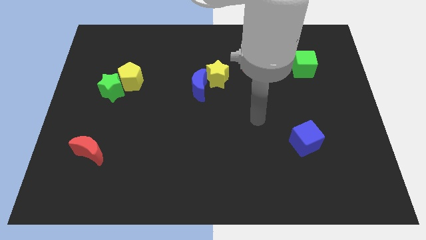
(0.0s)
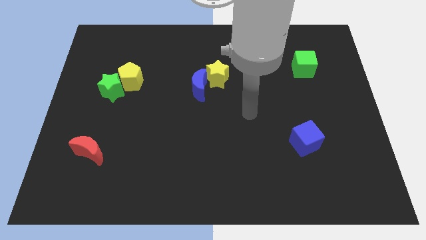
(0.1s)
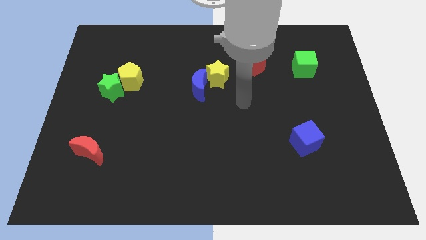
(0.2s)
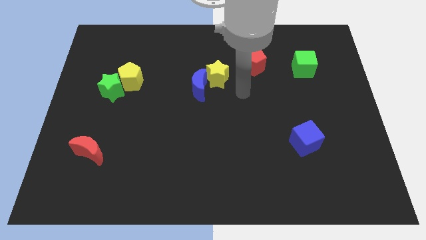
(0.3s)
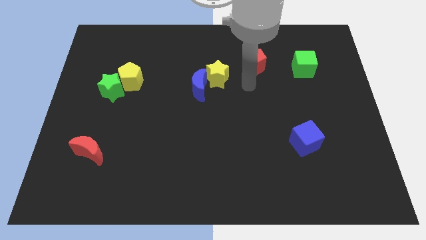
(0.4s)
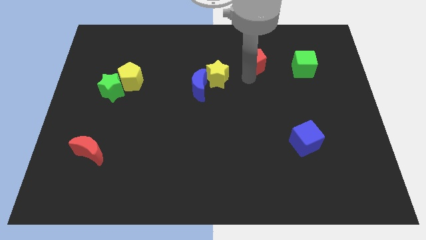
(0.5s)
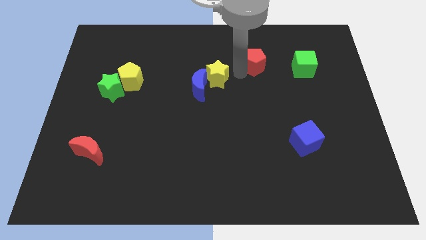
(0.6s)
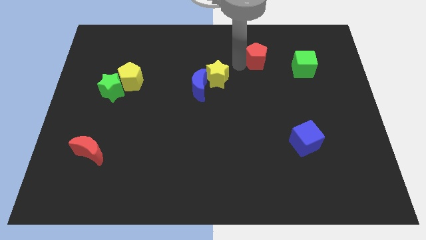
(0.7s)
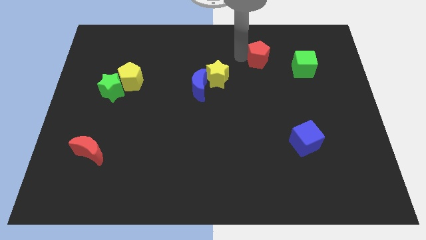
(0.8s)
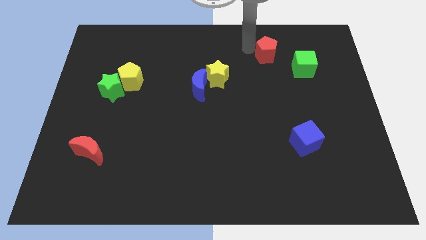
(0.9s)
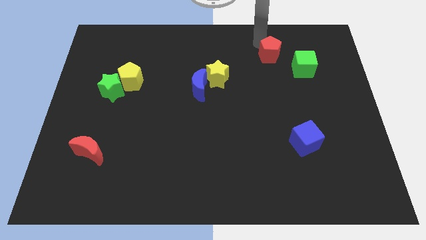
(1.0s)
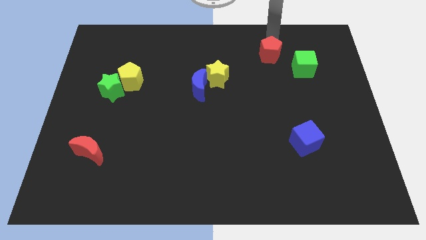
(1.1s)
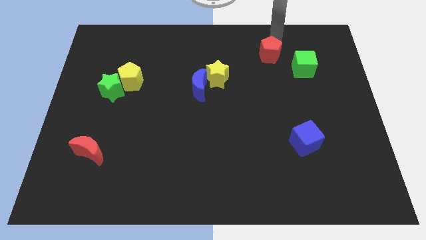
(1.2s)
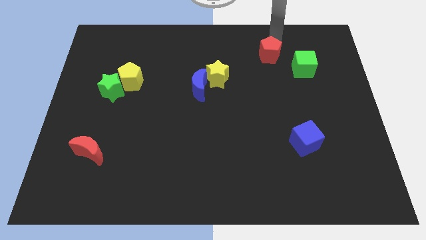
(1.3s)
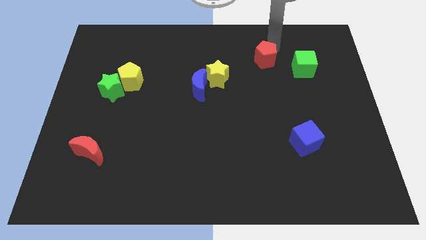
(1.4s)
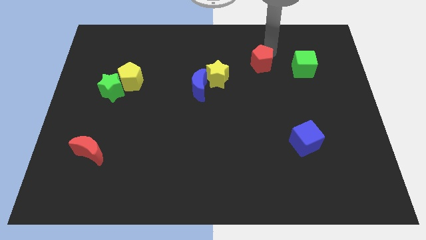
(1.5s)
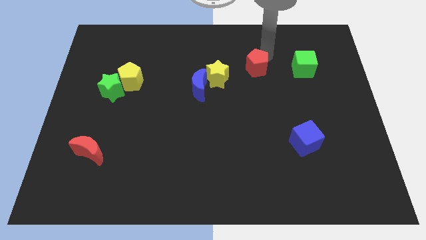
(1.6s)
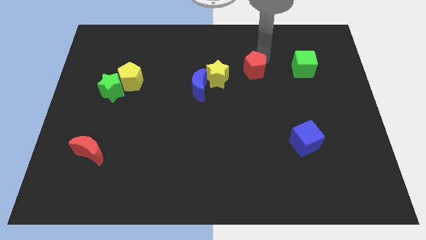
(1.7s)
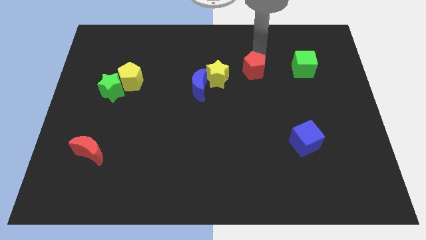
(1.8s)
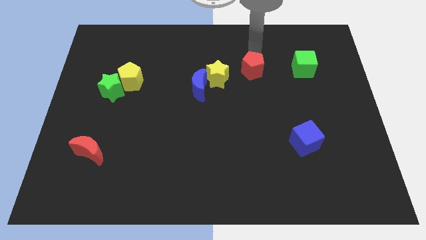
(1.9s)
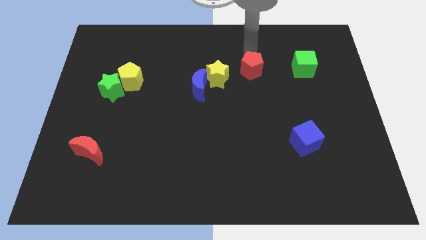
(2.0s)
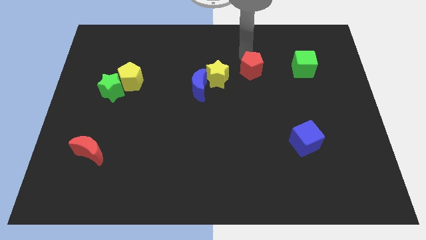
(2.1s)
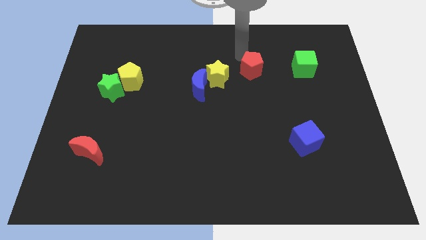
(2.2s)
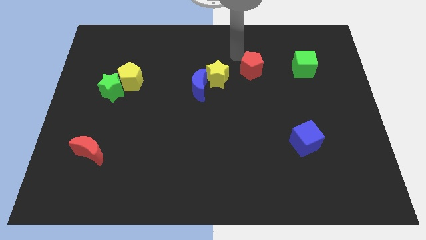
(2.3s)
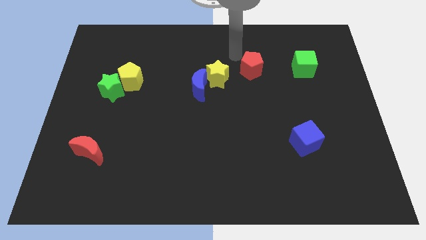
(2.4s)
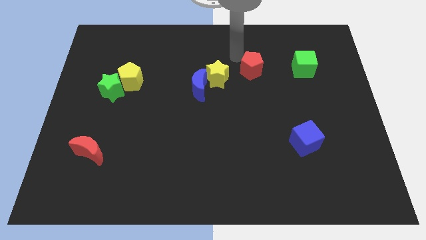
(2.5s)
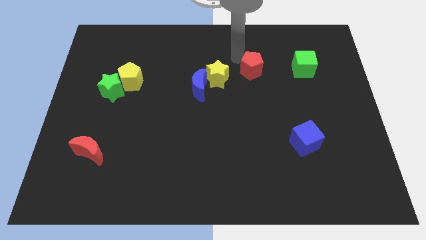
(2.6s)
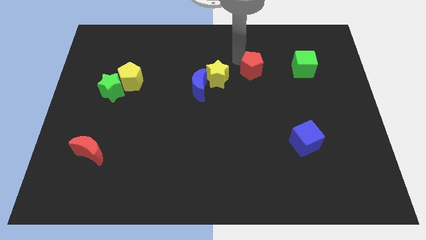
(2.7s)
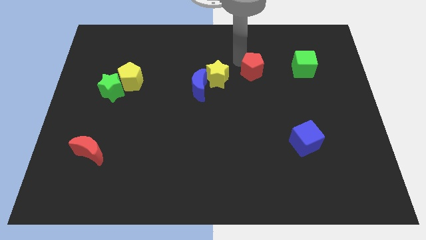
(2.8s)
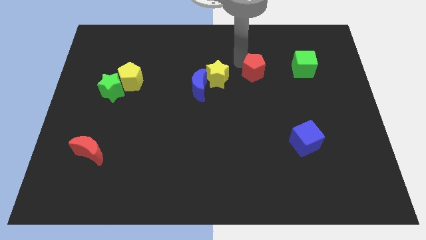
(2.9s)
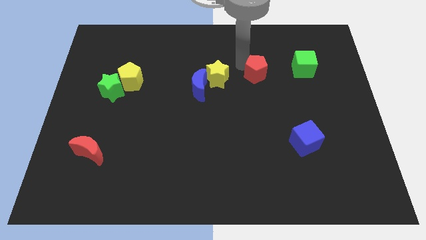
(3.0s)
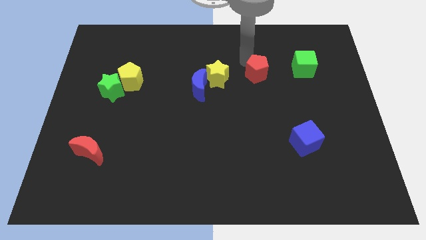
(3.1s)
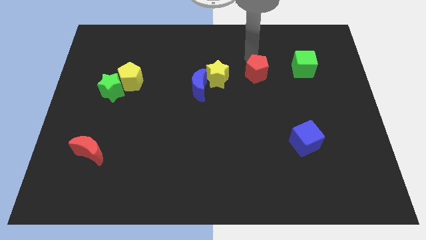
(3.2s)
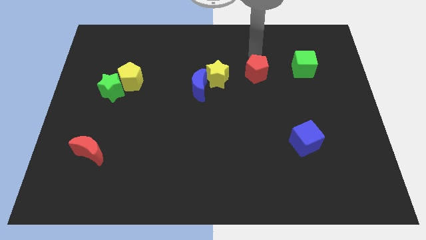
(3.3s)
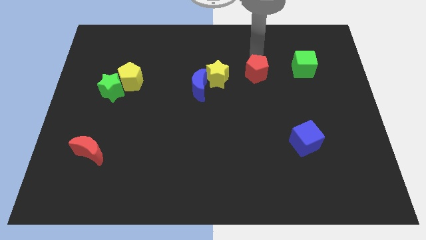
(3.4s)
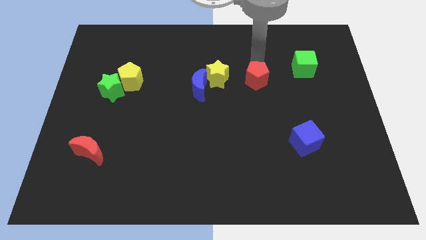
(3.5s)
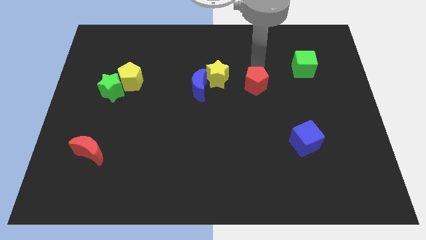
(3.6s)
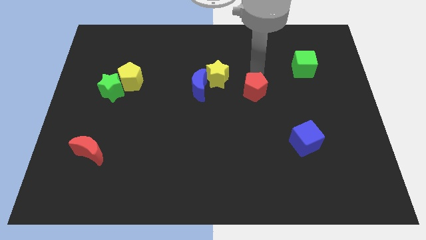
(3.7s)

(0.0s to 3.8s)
move the red pentagon down a little bit

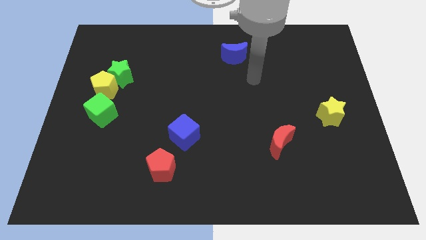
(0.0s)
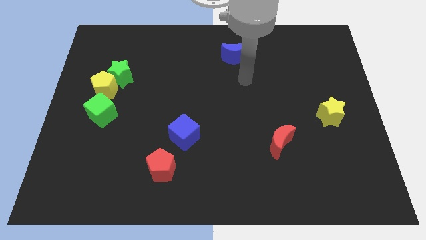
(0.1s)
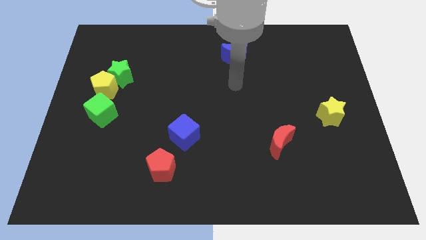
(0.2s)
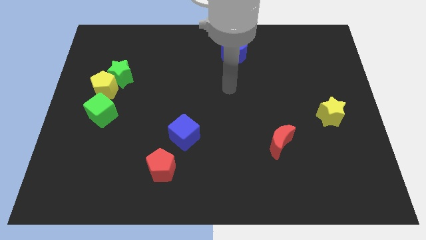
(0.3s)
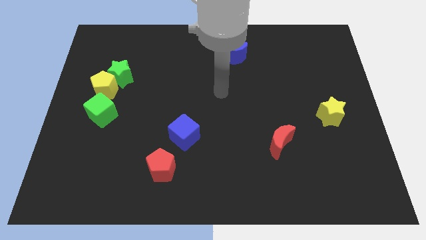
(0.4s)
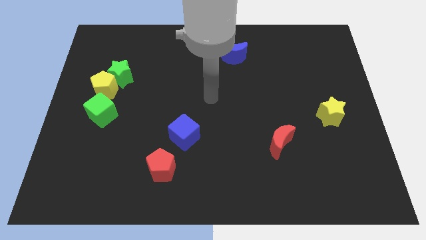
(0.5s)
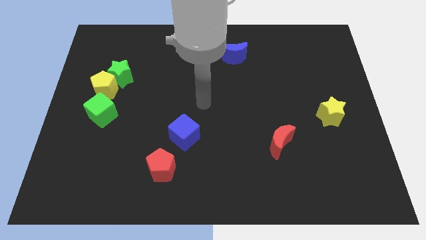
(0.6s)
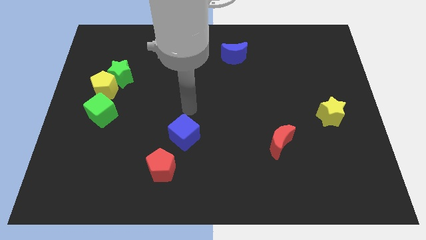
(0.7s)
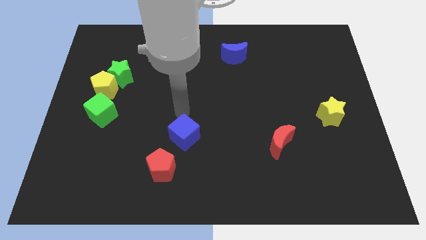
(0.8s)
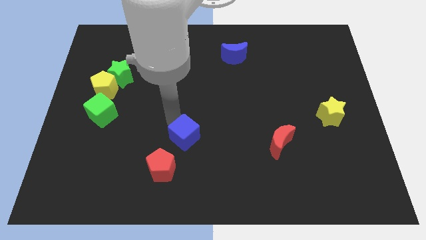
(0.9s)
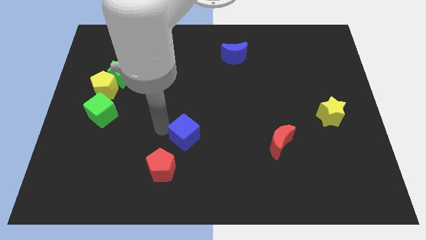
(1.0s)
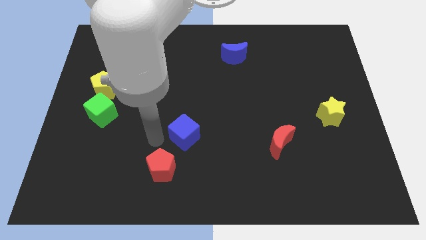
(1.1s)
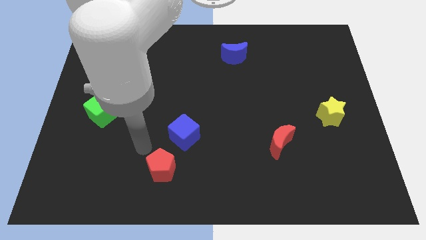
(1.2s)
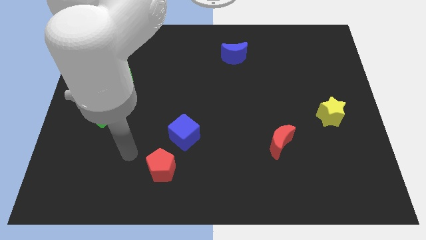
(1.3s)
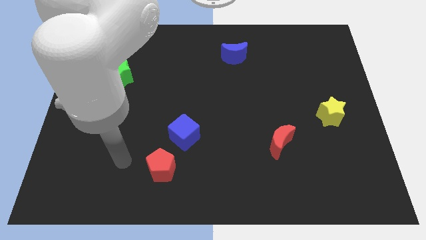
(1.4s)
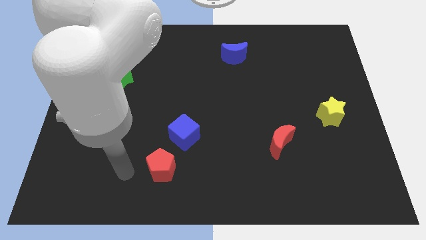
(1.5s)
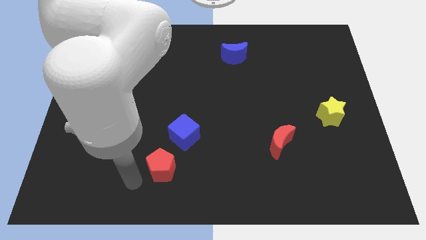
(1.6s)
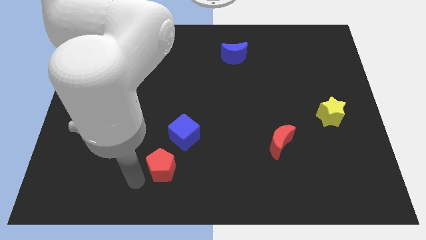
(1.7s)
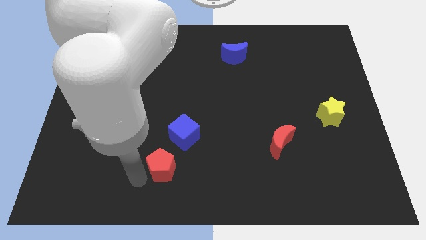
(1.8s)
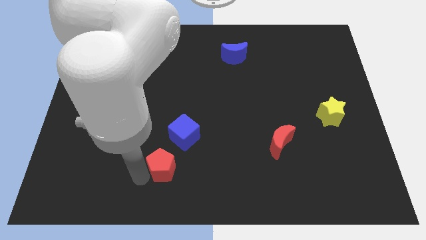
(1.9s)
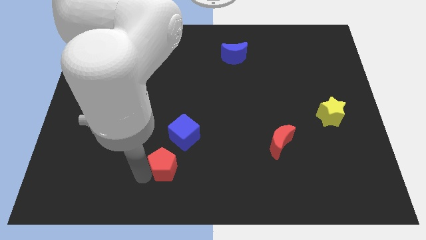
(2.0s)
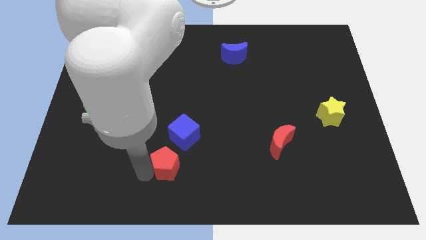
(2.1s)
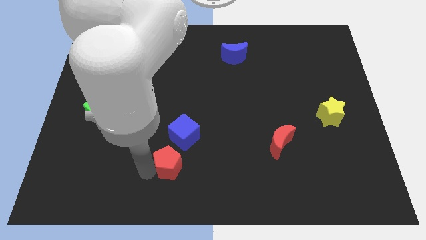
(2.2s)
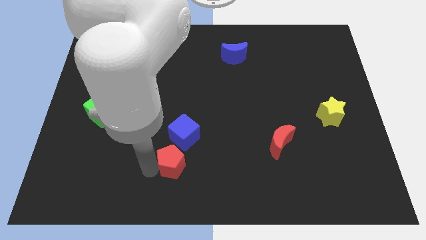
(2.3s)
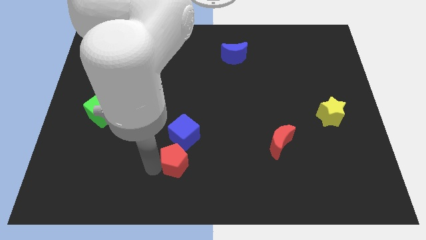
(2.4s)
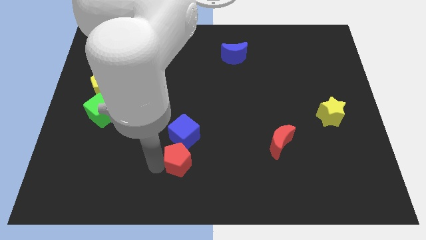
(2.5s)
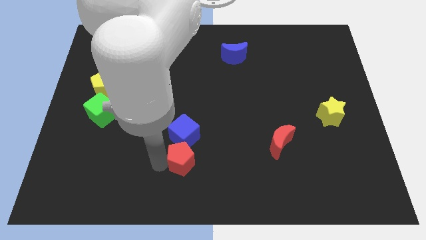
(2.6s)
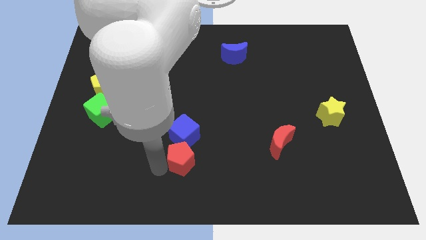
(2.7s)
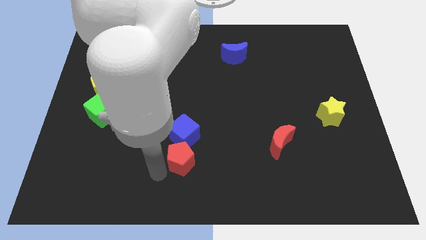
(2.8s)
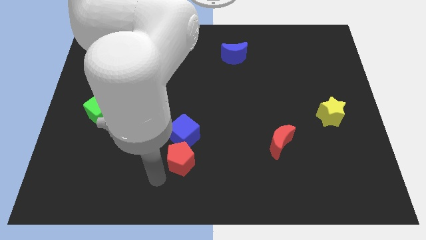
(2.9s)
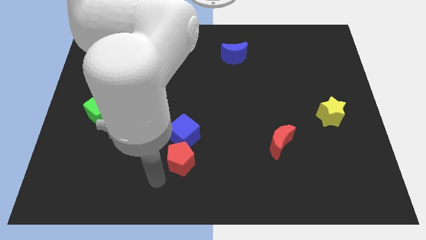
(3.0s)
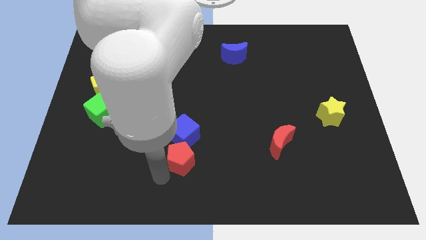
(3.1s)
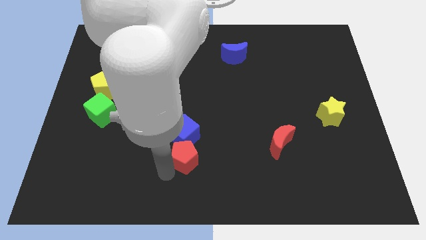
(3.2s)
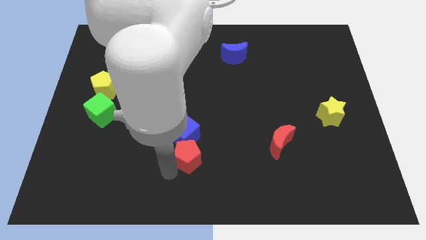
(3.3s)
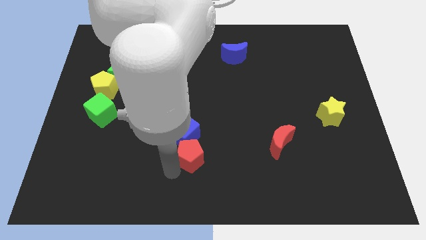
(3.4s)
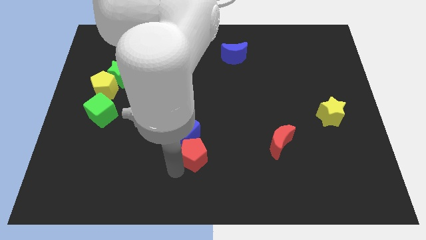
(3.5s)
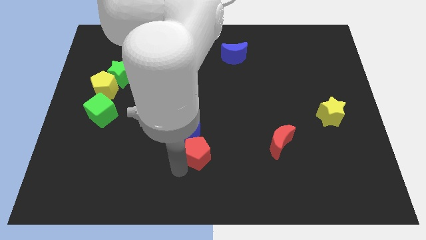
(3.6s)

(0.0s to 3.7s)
move the red pentagon slightly diagonally up and right
